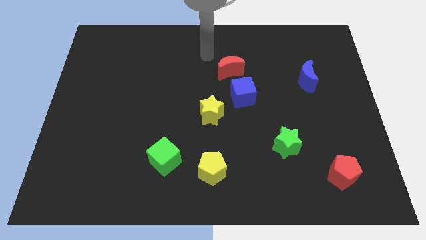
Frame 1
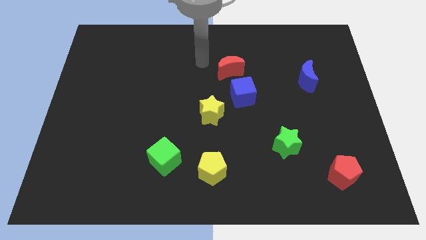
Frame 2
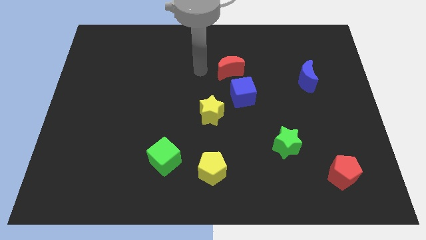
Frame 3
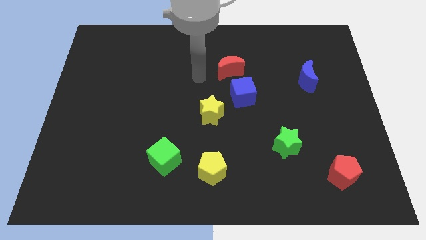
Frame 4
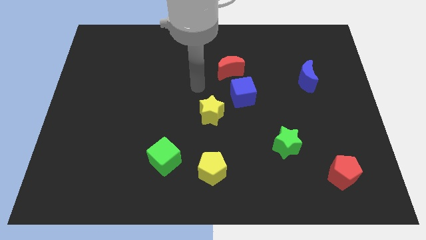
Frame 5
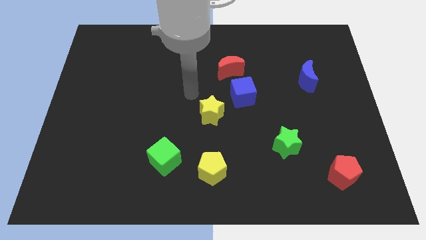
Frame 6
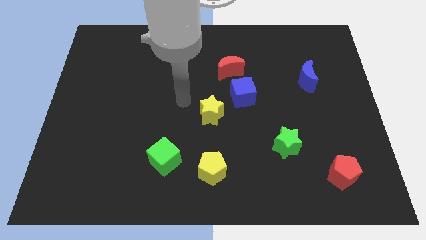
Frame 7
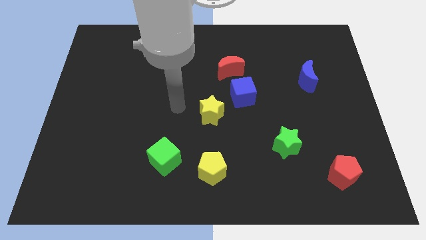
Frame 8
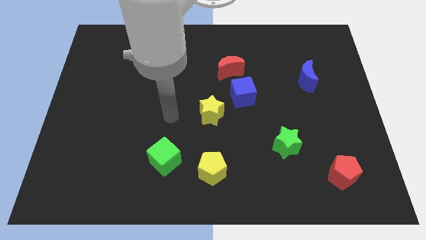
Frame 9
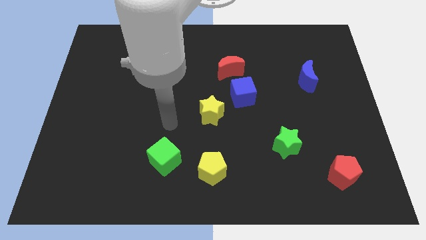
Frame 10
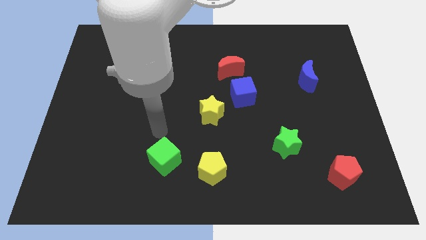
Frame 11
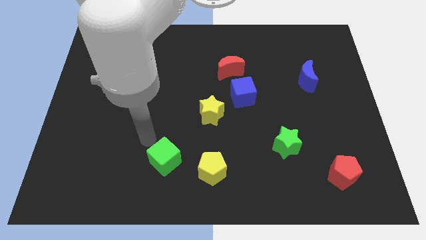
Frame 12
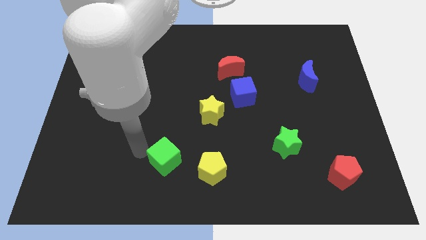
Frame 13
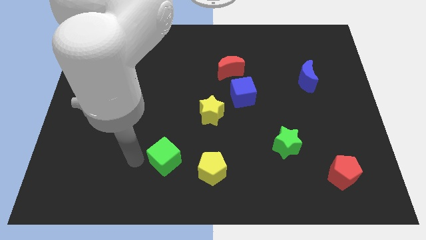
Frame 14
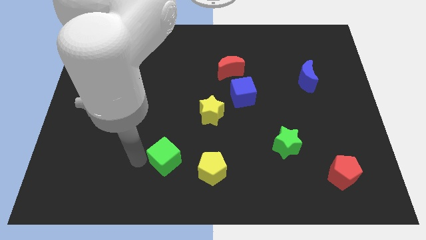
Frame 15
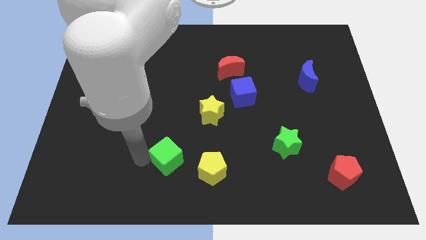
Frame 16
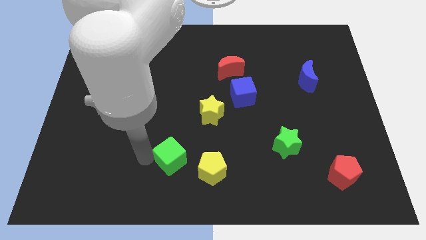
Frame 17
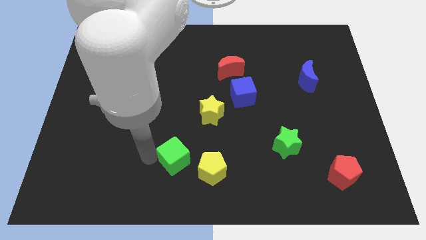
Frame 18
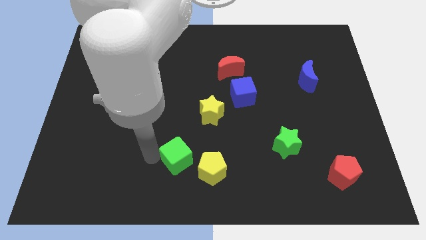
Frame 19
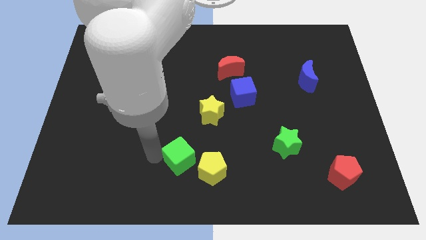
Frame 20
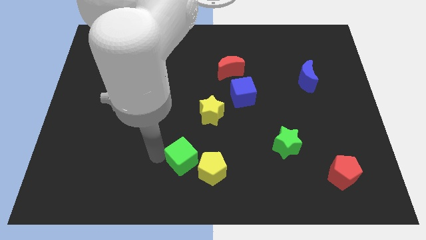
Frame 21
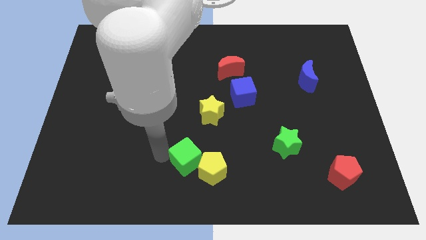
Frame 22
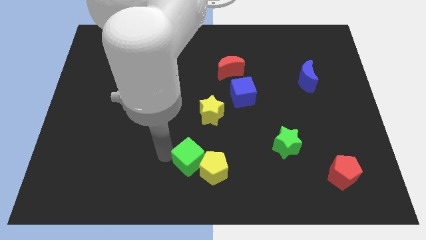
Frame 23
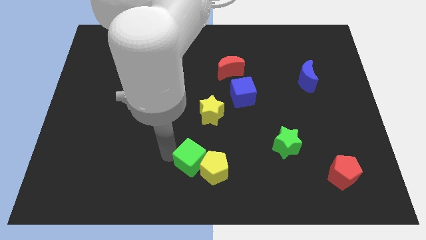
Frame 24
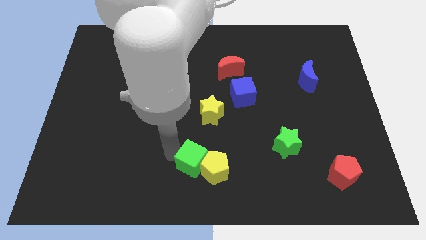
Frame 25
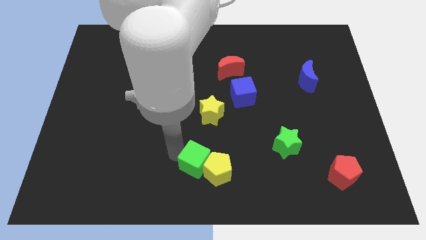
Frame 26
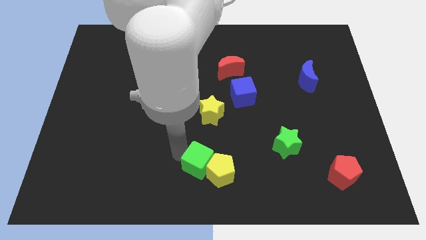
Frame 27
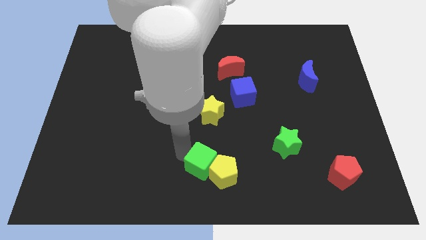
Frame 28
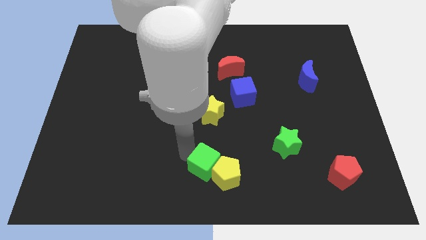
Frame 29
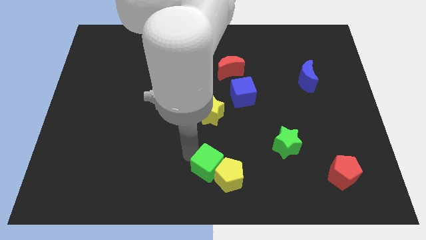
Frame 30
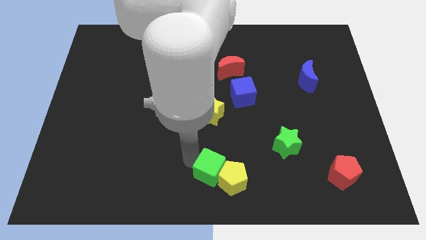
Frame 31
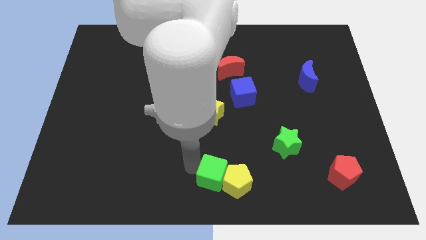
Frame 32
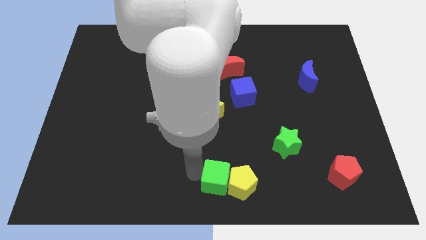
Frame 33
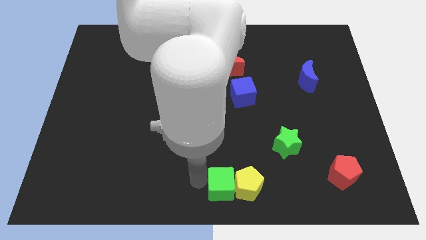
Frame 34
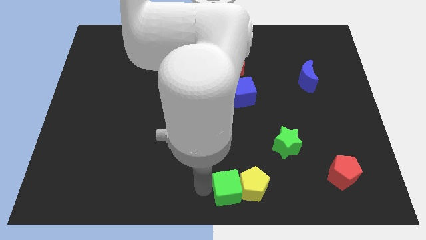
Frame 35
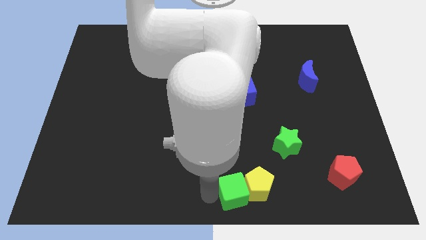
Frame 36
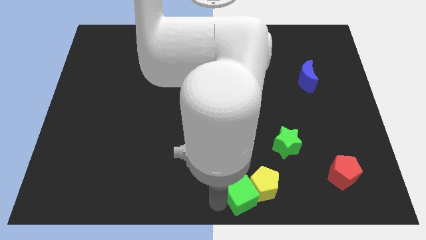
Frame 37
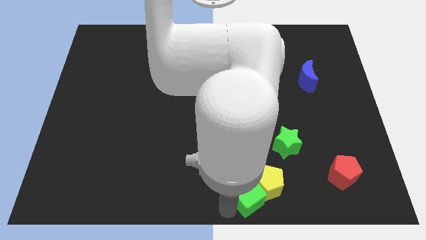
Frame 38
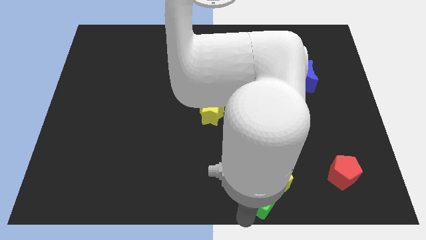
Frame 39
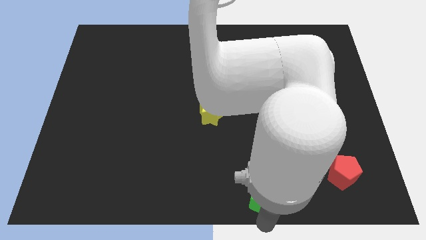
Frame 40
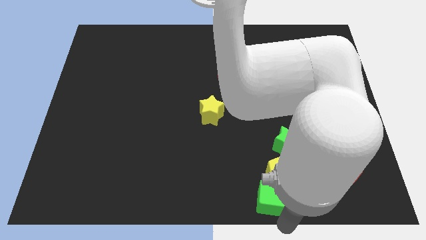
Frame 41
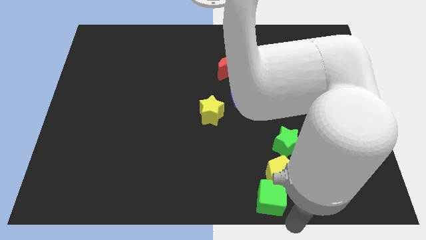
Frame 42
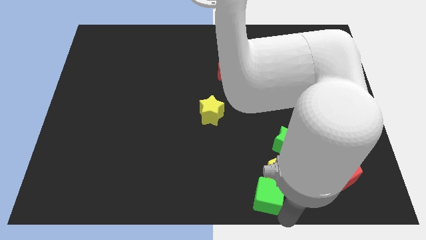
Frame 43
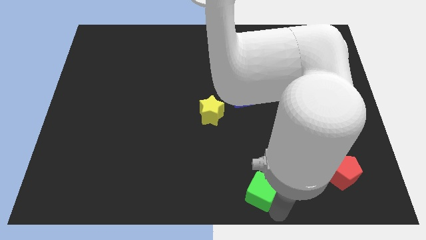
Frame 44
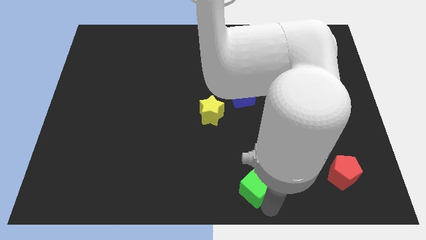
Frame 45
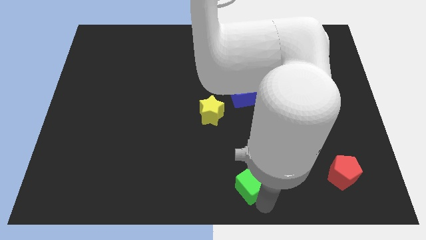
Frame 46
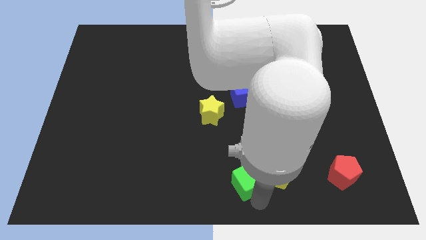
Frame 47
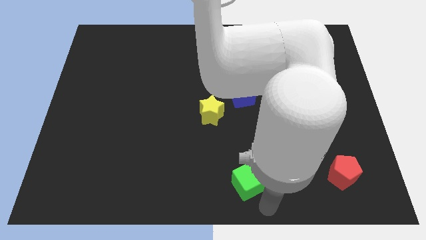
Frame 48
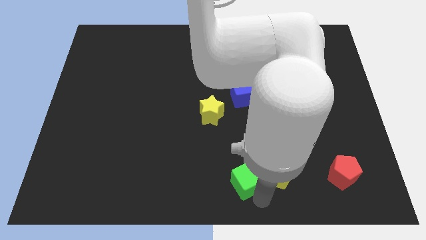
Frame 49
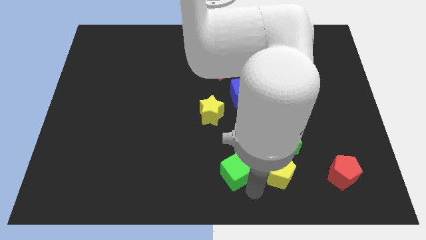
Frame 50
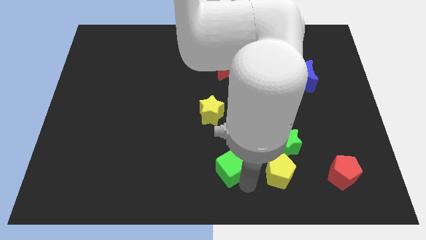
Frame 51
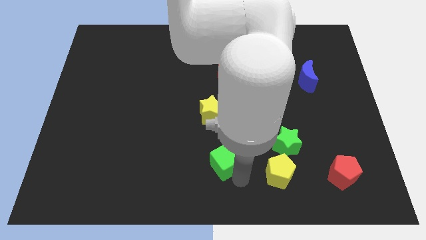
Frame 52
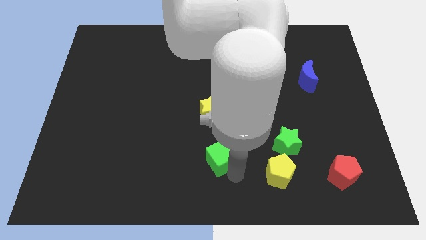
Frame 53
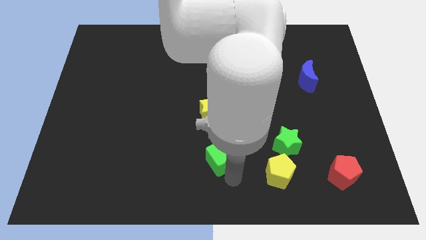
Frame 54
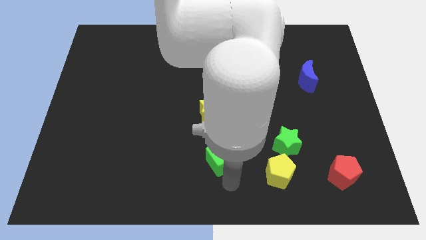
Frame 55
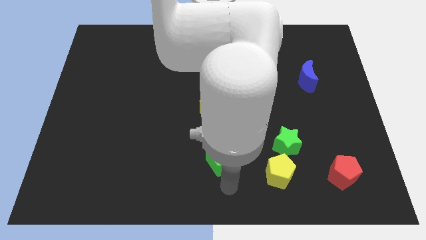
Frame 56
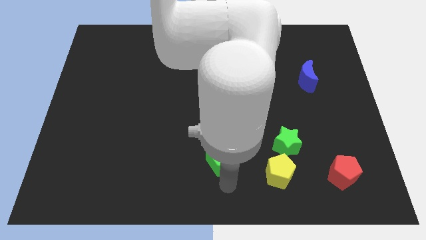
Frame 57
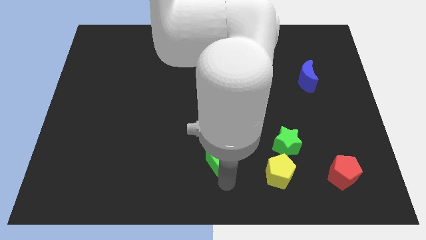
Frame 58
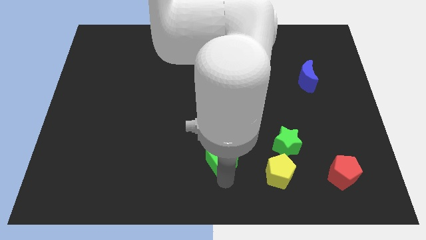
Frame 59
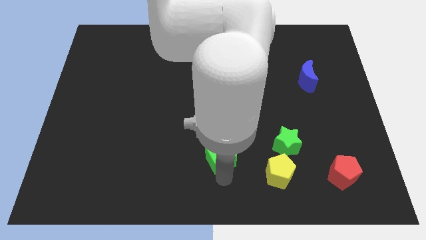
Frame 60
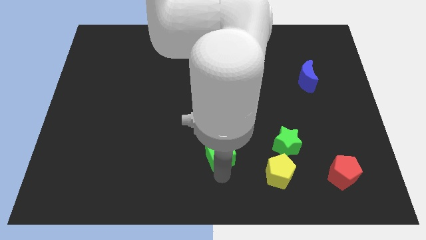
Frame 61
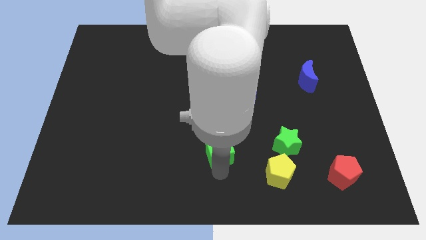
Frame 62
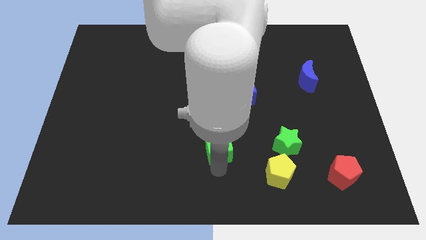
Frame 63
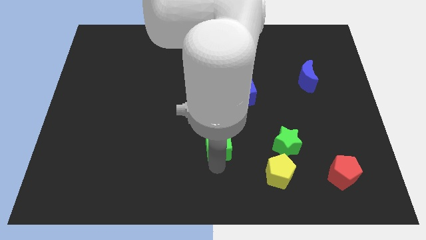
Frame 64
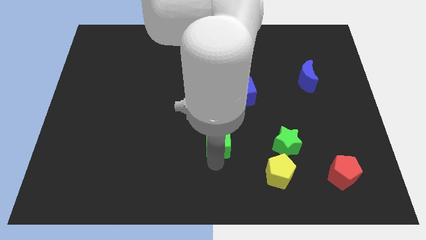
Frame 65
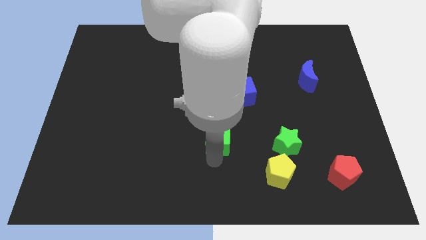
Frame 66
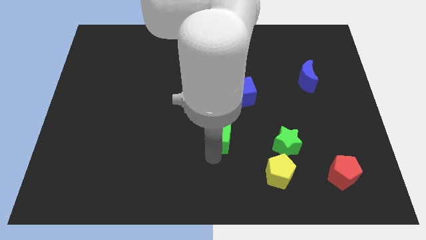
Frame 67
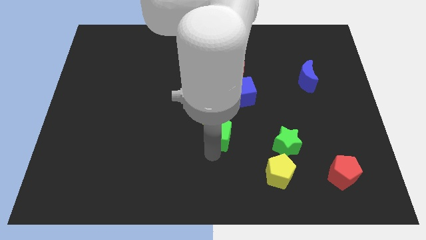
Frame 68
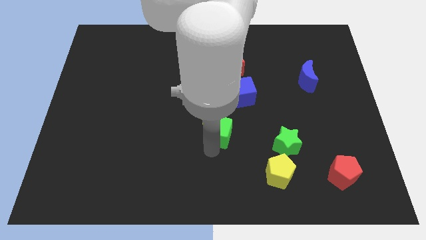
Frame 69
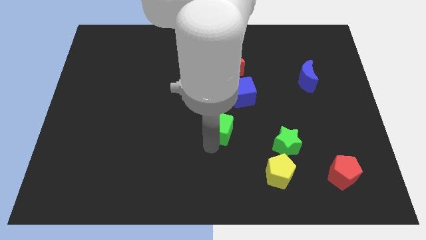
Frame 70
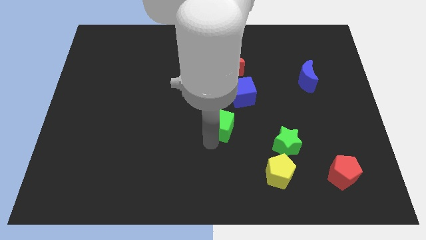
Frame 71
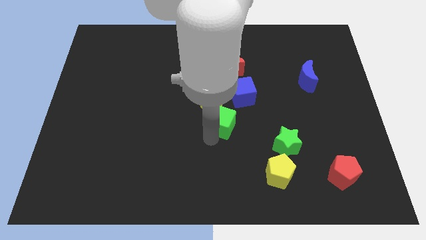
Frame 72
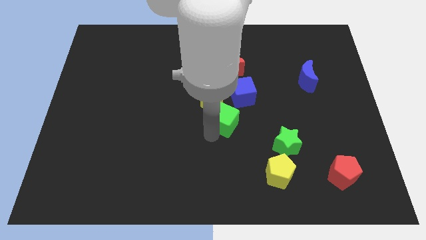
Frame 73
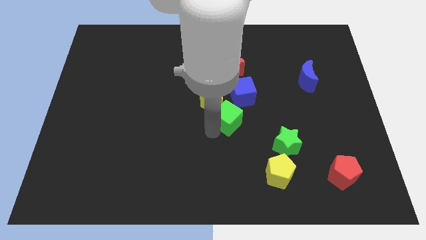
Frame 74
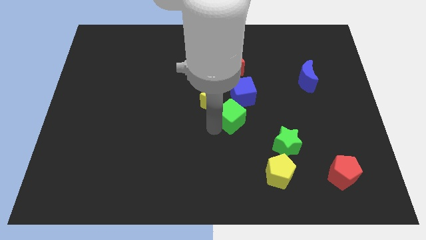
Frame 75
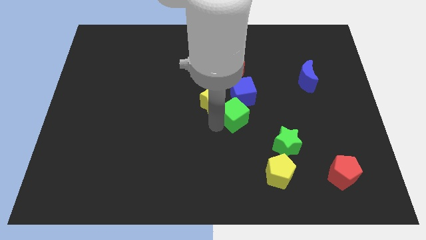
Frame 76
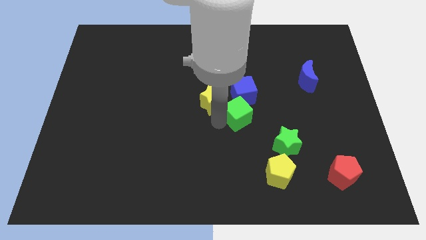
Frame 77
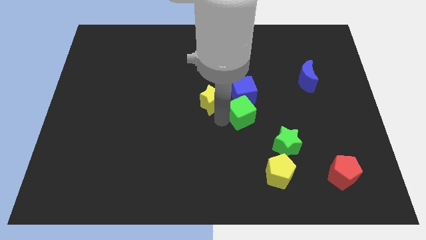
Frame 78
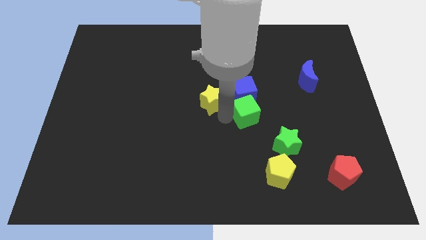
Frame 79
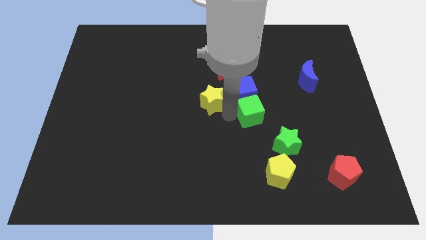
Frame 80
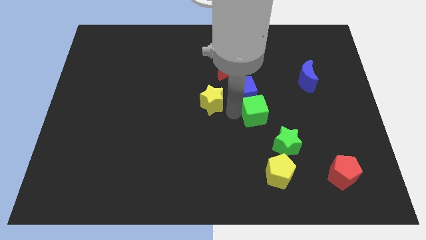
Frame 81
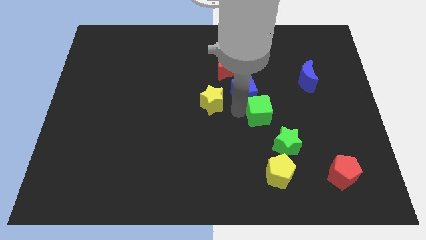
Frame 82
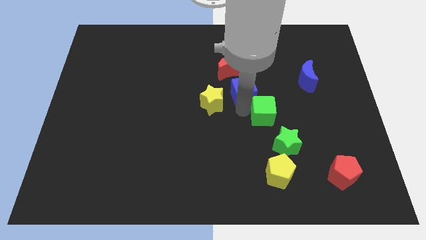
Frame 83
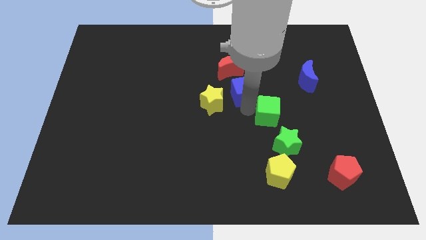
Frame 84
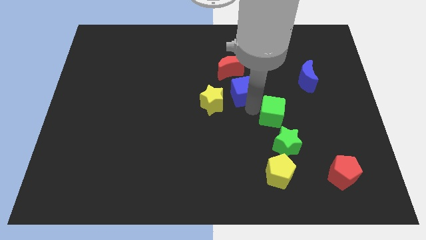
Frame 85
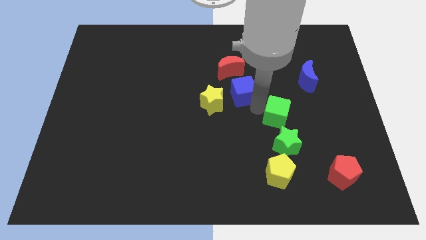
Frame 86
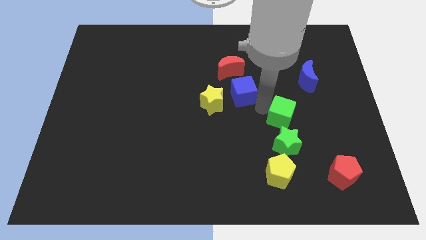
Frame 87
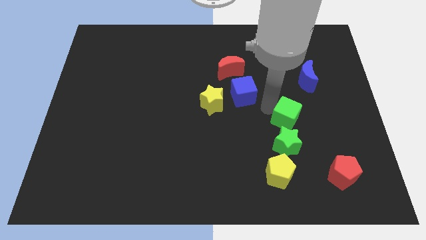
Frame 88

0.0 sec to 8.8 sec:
push the green cube right
